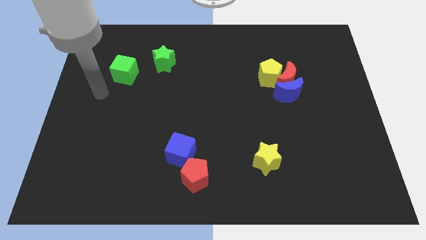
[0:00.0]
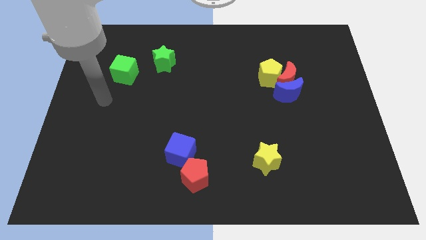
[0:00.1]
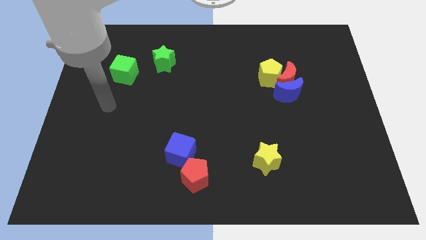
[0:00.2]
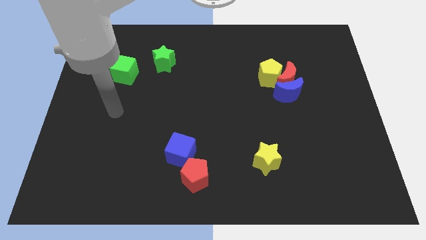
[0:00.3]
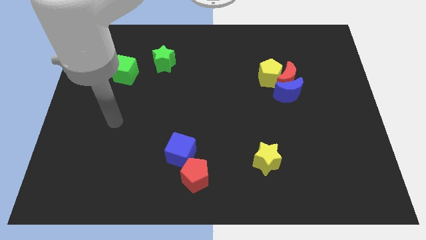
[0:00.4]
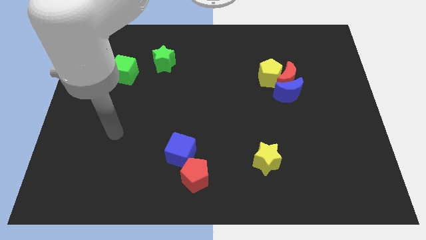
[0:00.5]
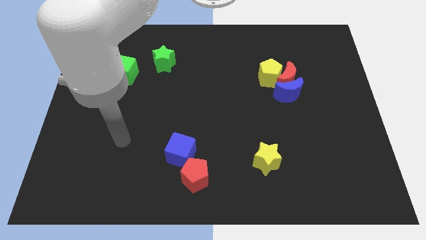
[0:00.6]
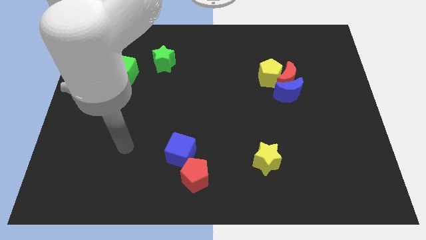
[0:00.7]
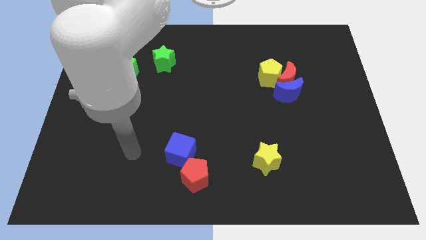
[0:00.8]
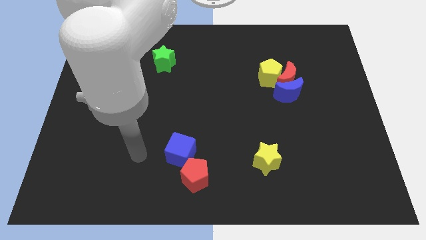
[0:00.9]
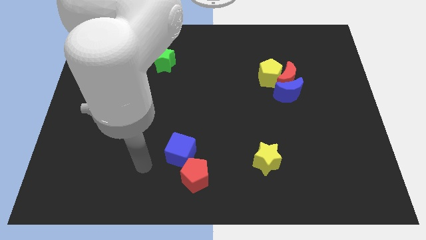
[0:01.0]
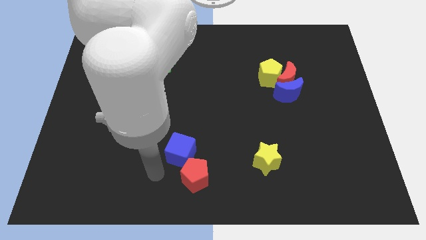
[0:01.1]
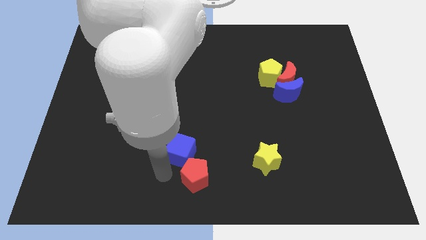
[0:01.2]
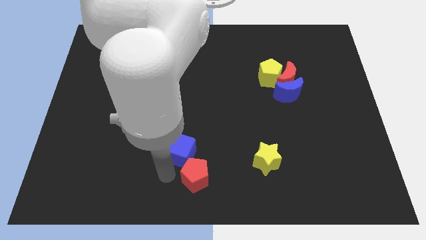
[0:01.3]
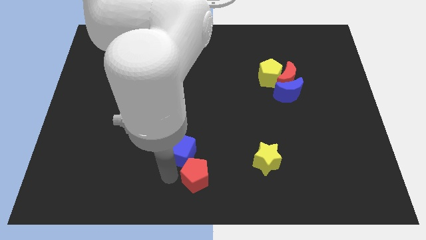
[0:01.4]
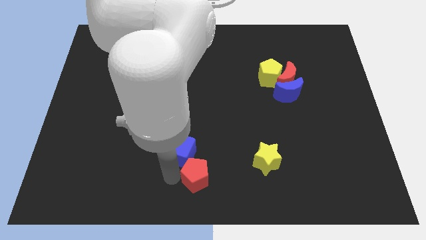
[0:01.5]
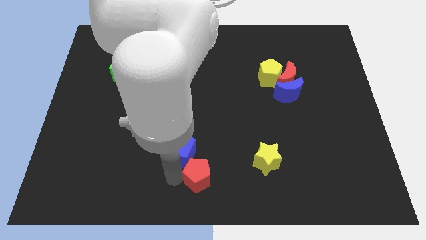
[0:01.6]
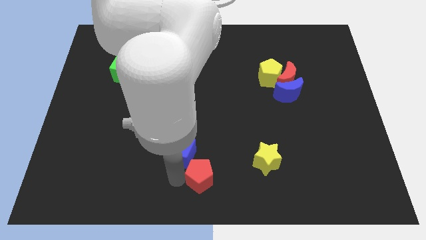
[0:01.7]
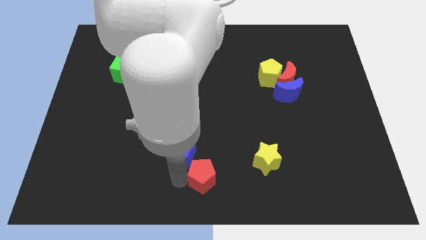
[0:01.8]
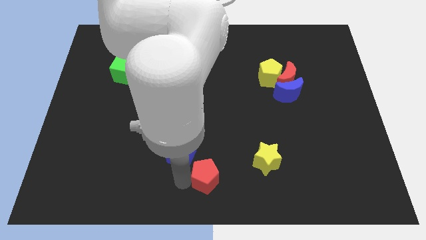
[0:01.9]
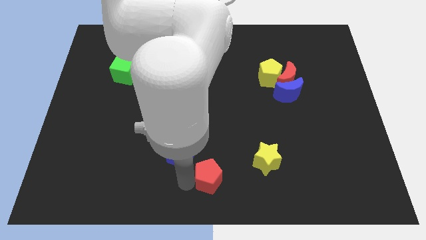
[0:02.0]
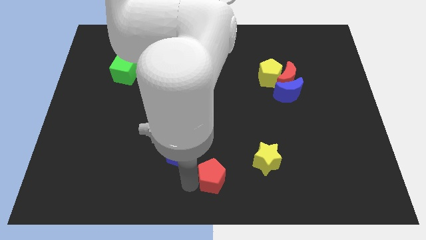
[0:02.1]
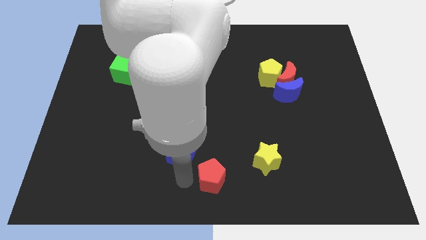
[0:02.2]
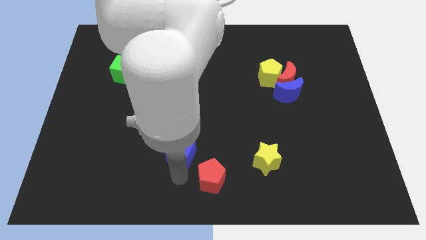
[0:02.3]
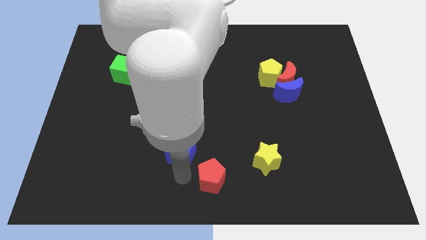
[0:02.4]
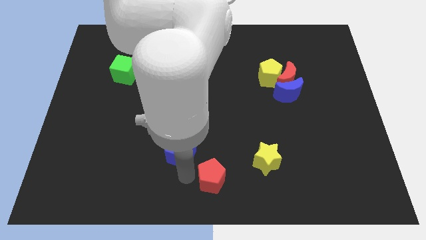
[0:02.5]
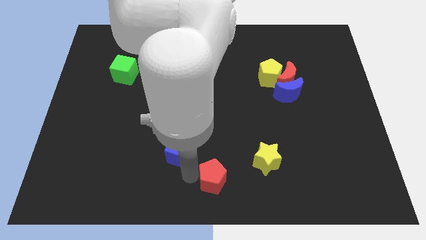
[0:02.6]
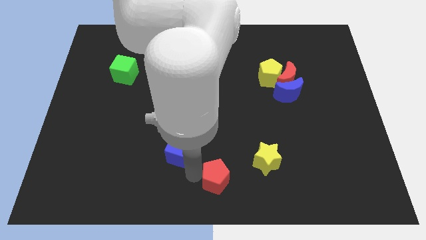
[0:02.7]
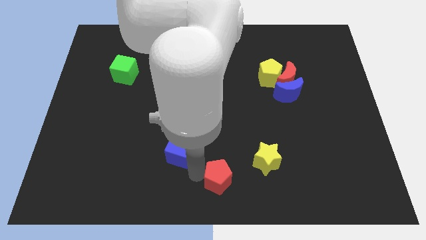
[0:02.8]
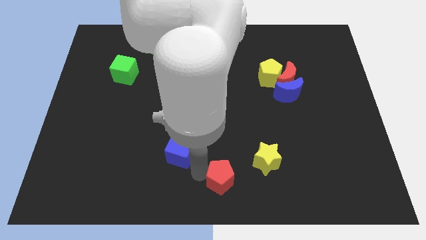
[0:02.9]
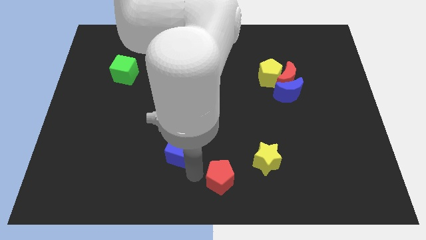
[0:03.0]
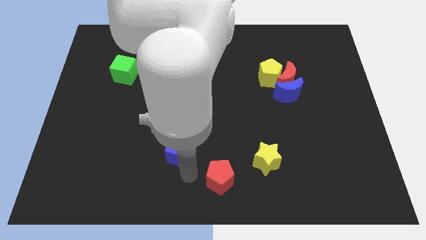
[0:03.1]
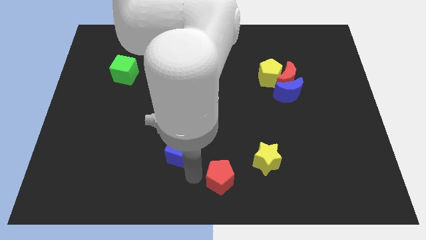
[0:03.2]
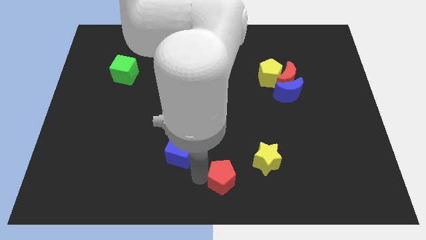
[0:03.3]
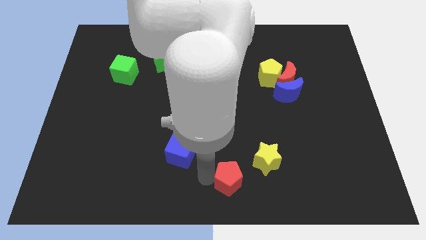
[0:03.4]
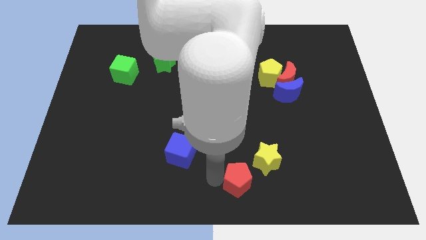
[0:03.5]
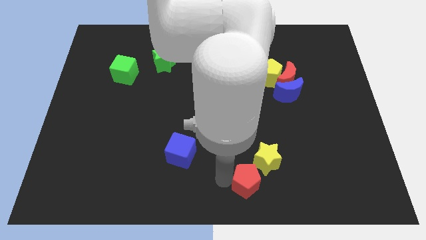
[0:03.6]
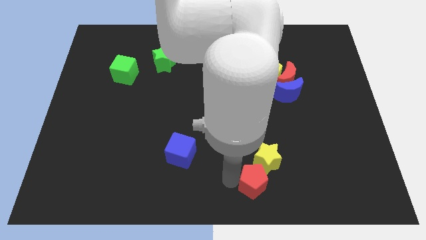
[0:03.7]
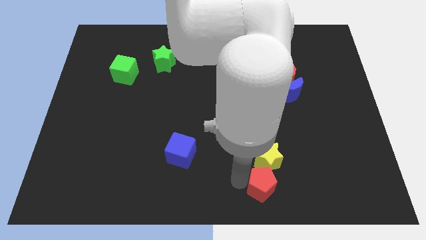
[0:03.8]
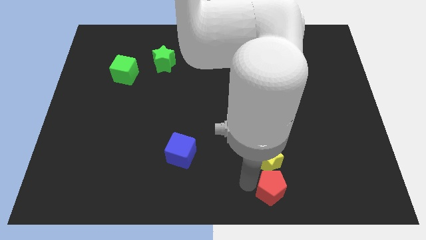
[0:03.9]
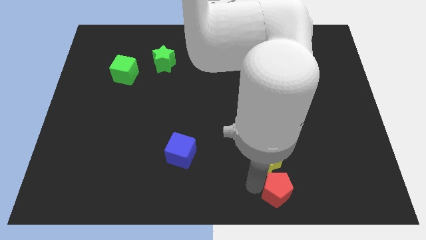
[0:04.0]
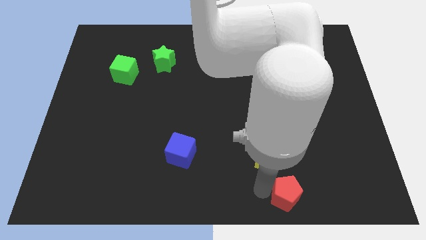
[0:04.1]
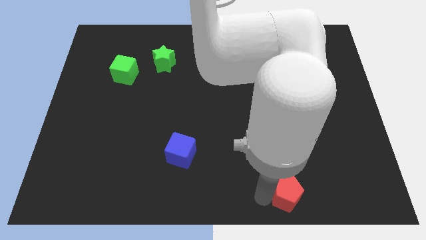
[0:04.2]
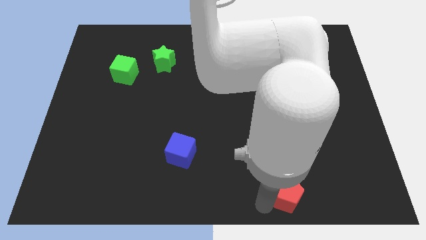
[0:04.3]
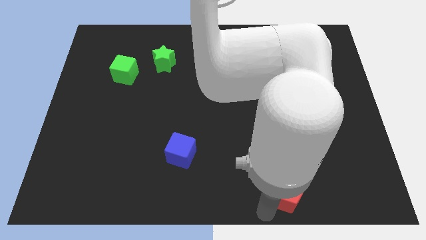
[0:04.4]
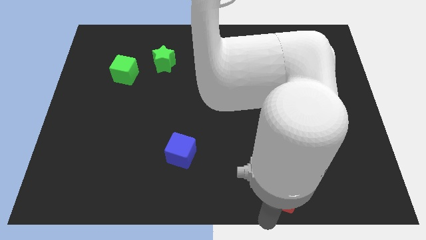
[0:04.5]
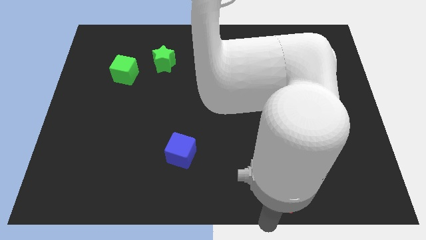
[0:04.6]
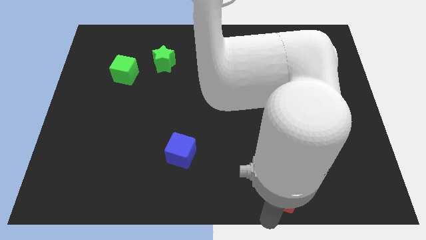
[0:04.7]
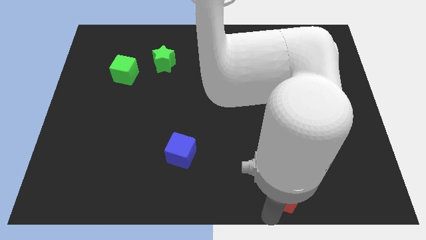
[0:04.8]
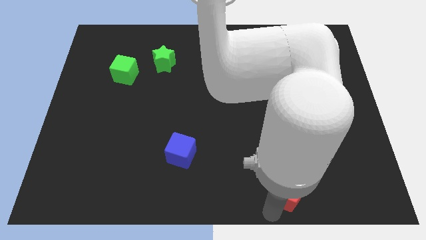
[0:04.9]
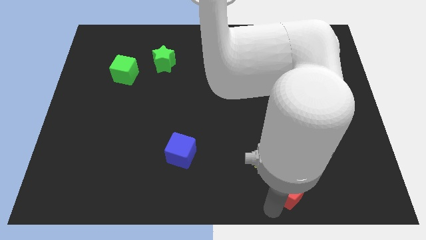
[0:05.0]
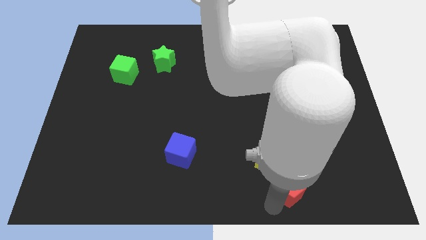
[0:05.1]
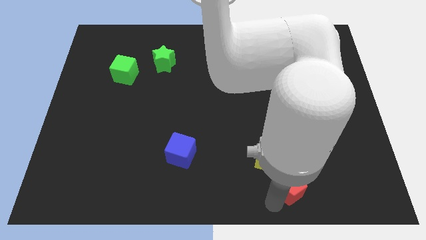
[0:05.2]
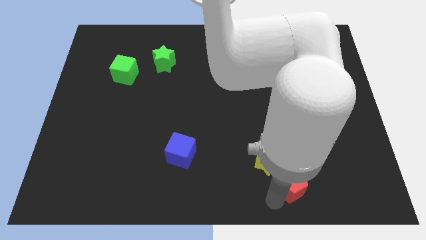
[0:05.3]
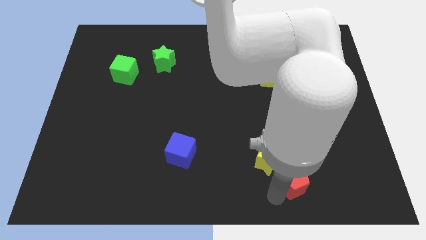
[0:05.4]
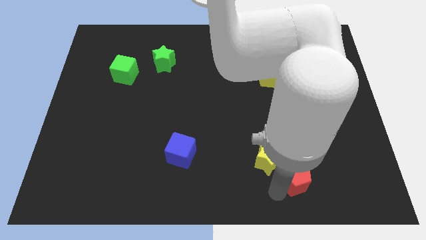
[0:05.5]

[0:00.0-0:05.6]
put the red pentagon just right of the yellow star
